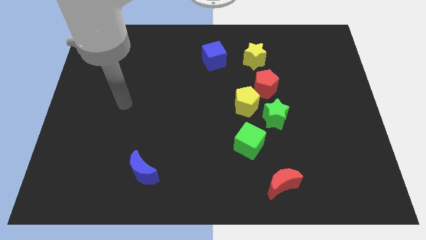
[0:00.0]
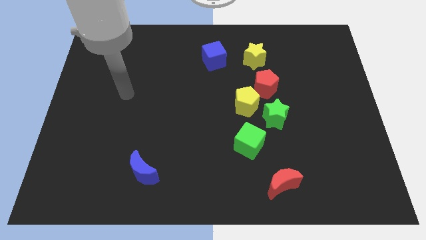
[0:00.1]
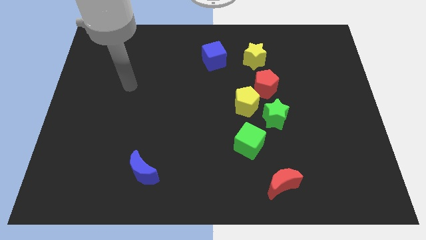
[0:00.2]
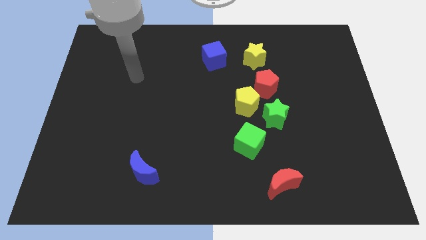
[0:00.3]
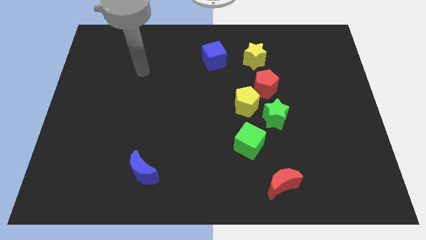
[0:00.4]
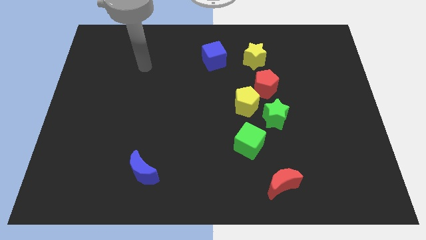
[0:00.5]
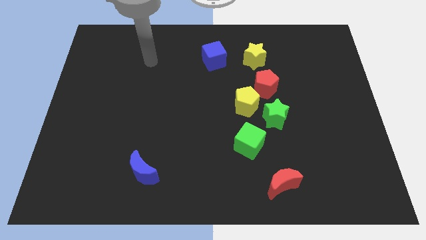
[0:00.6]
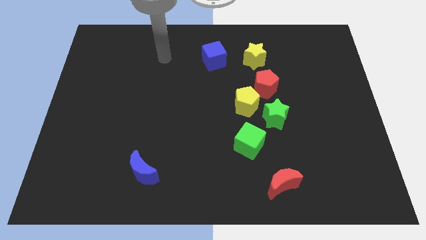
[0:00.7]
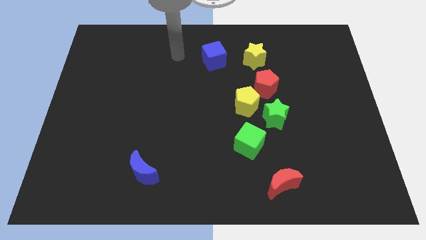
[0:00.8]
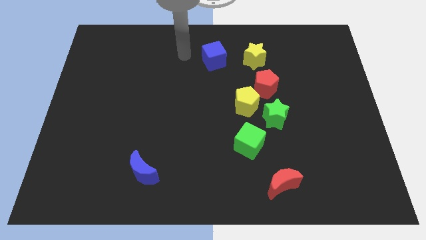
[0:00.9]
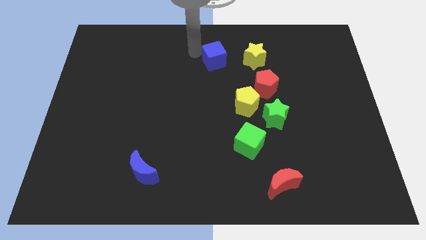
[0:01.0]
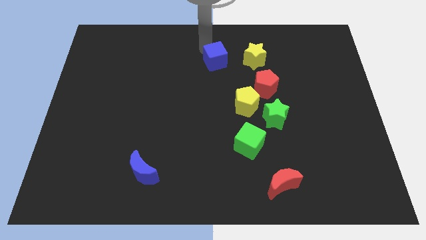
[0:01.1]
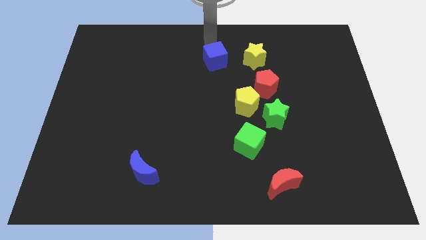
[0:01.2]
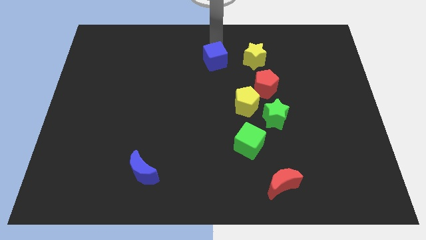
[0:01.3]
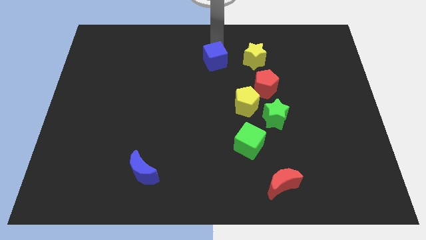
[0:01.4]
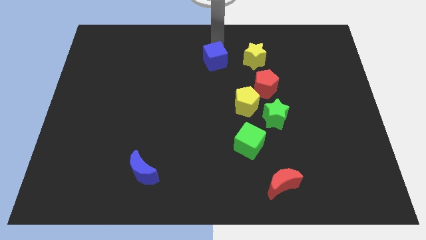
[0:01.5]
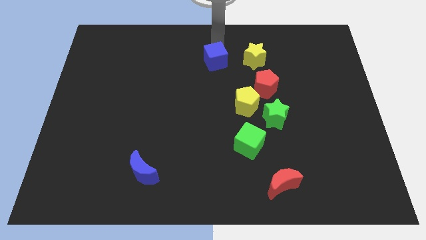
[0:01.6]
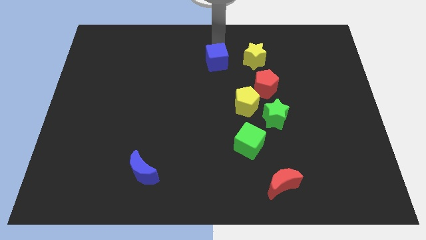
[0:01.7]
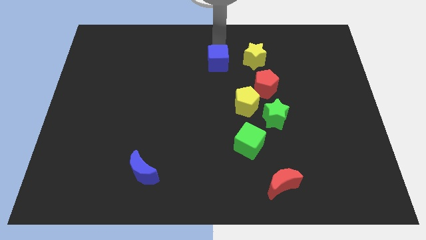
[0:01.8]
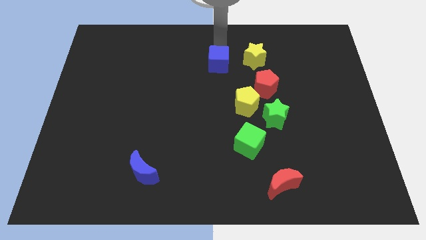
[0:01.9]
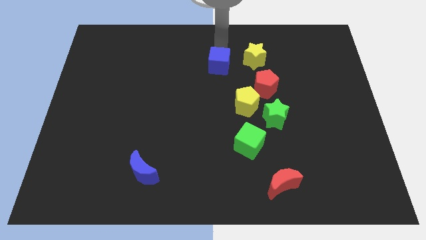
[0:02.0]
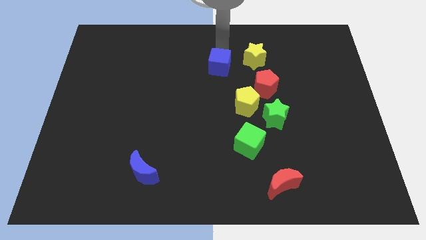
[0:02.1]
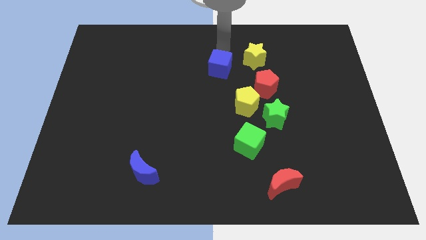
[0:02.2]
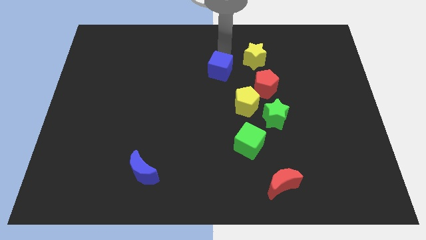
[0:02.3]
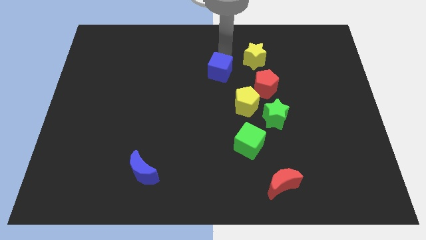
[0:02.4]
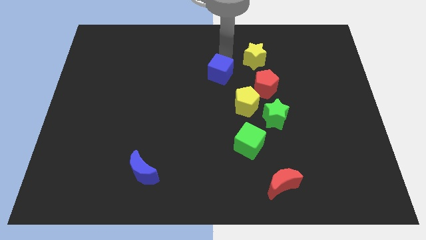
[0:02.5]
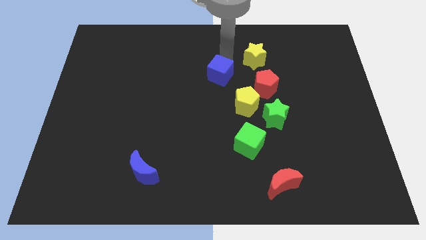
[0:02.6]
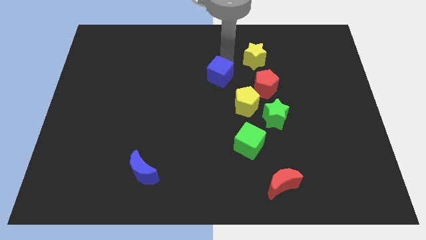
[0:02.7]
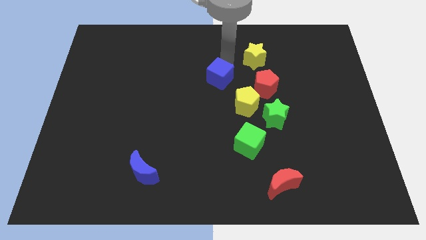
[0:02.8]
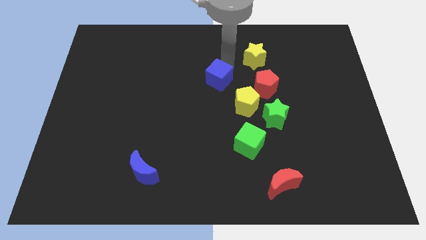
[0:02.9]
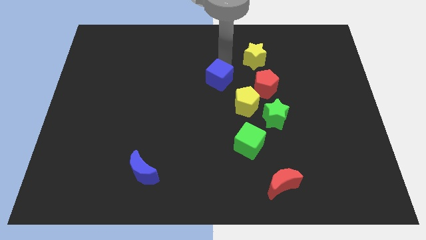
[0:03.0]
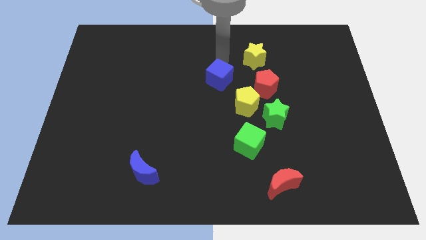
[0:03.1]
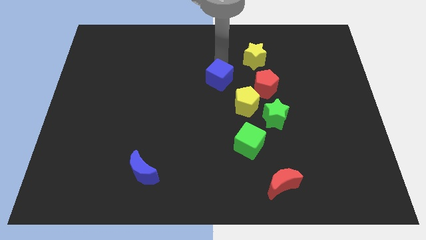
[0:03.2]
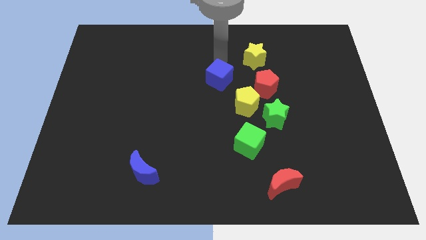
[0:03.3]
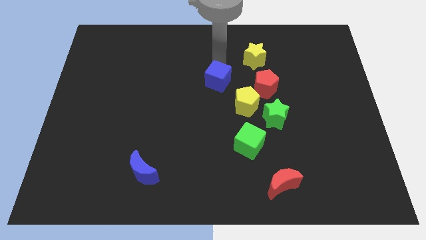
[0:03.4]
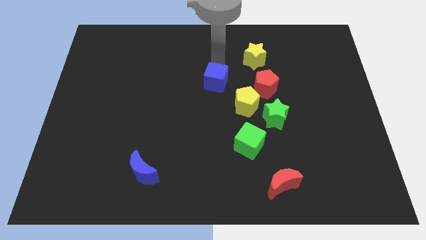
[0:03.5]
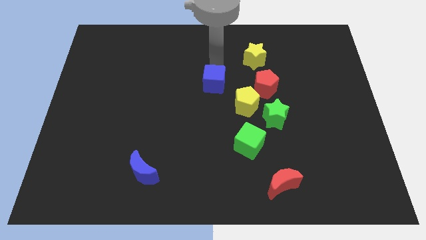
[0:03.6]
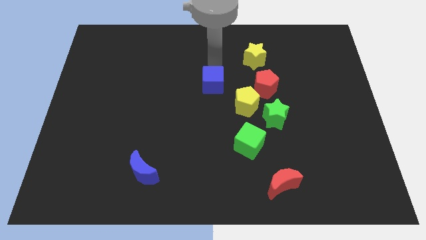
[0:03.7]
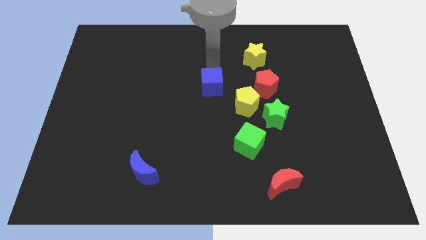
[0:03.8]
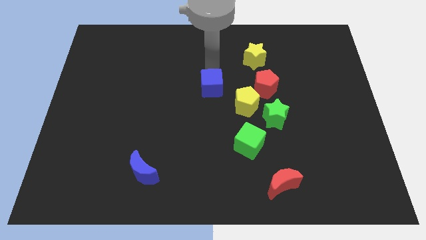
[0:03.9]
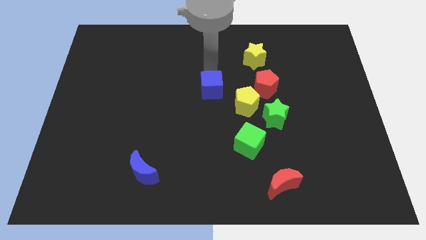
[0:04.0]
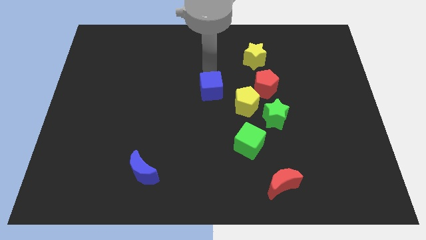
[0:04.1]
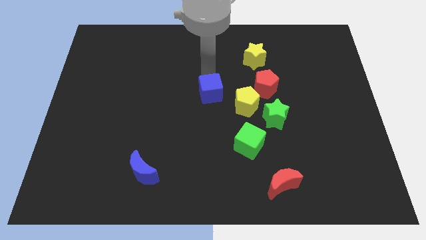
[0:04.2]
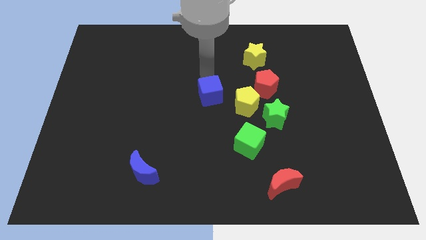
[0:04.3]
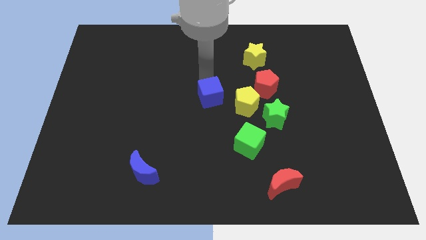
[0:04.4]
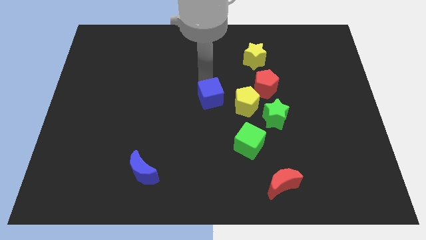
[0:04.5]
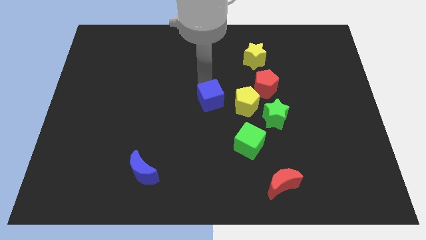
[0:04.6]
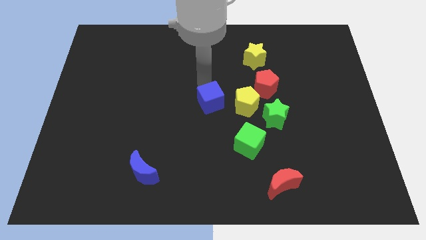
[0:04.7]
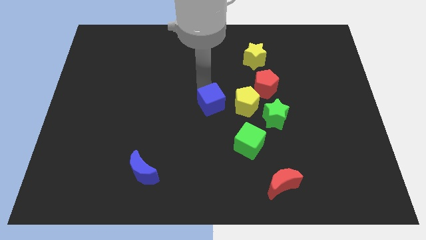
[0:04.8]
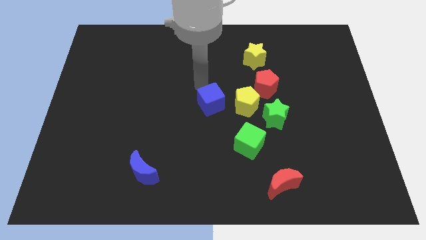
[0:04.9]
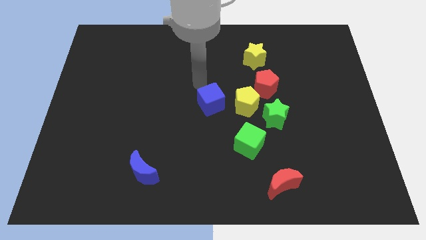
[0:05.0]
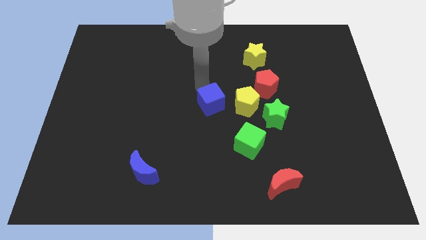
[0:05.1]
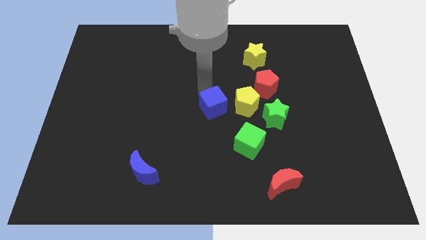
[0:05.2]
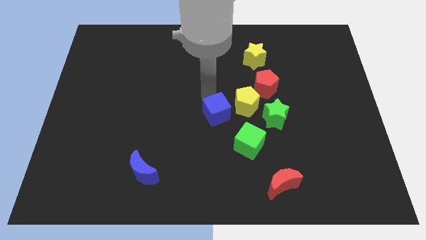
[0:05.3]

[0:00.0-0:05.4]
put the blue cube diagonally up and to the left of the green cube

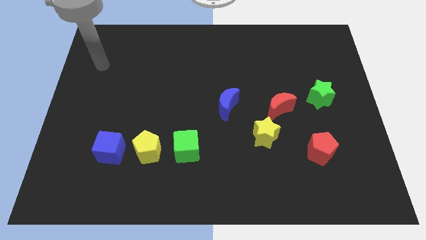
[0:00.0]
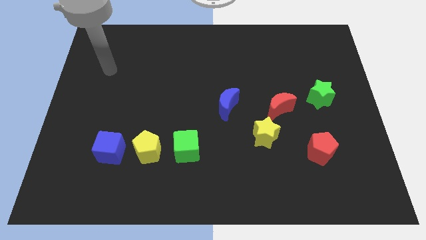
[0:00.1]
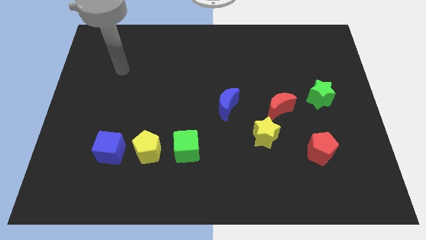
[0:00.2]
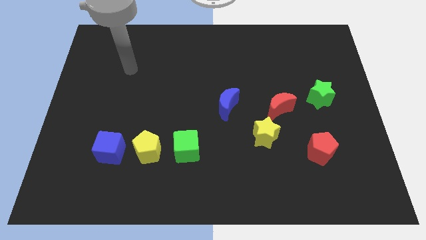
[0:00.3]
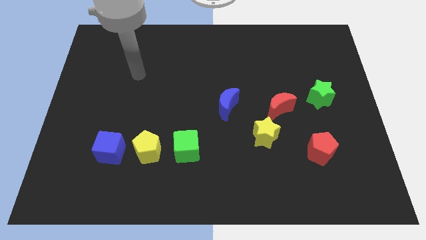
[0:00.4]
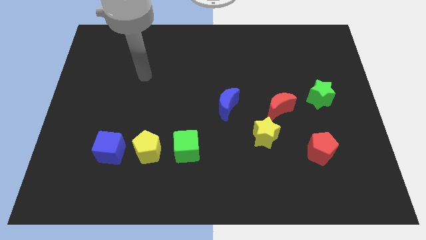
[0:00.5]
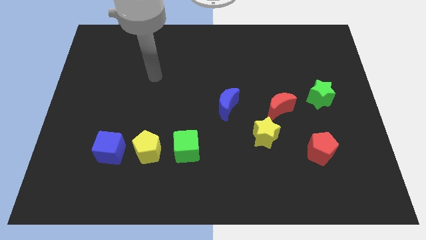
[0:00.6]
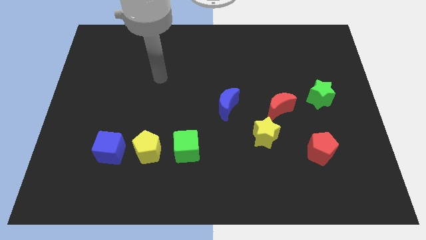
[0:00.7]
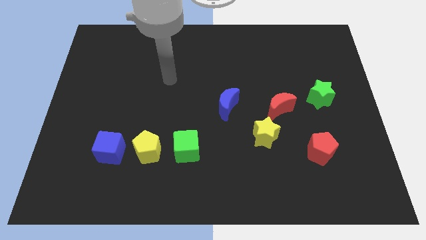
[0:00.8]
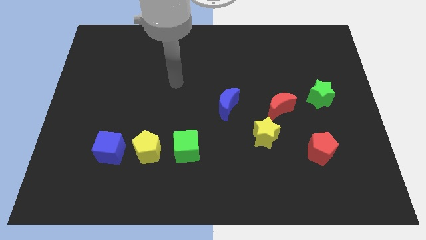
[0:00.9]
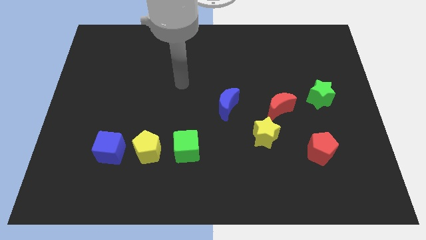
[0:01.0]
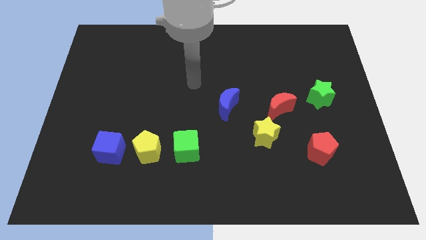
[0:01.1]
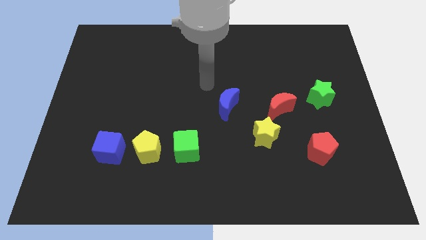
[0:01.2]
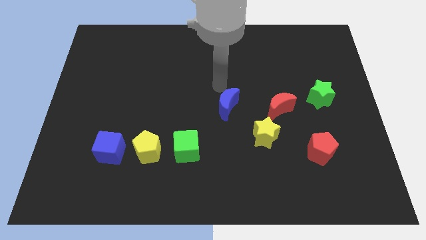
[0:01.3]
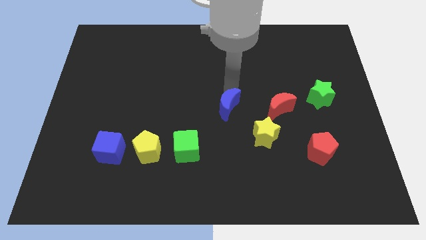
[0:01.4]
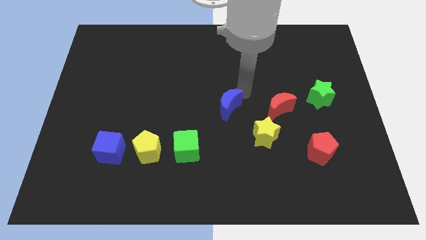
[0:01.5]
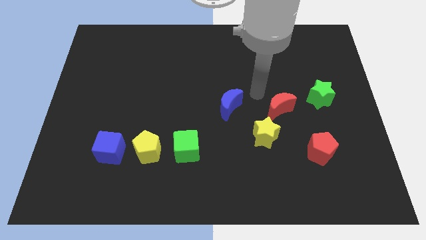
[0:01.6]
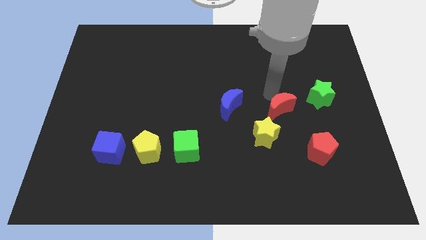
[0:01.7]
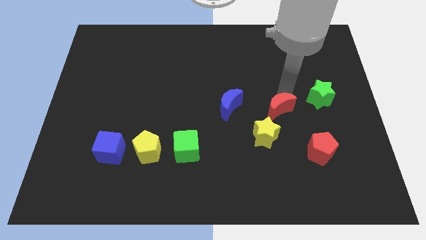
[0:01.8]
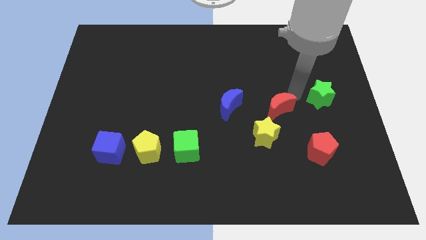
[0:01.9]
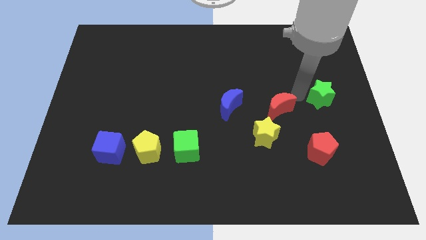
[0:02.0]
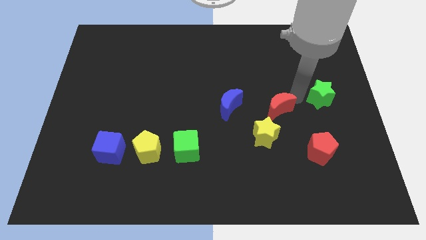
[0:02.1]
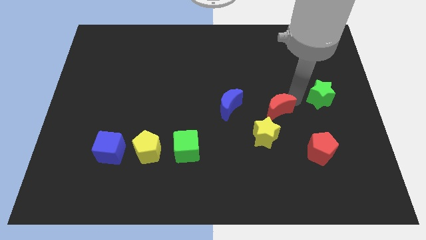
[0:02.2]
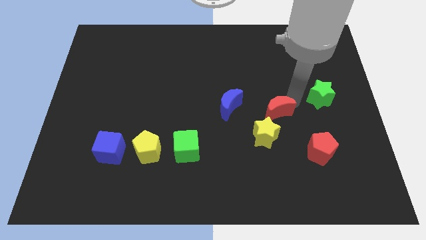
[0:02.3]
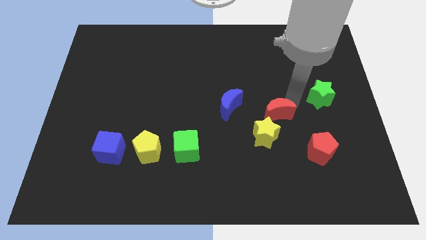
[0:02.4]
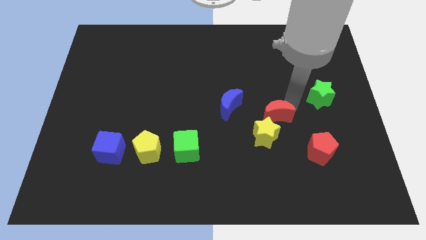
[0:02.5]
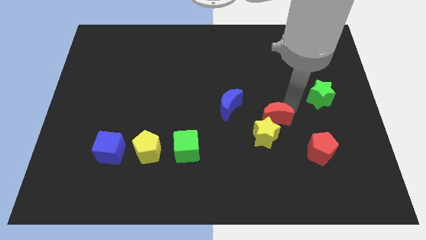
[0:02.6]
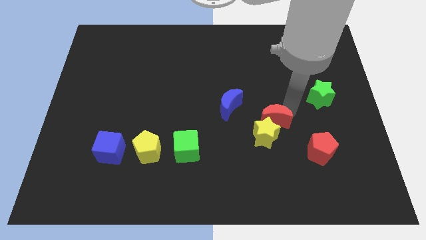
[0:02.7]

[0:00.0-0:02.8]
push the red moon diagonally down and to the right of the blue moon

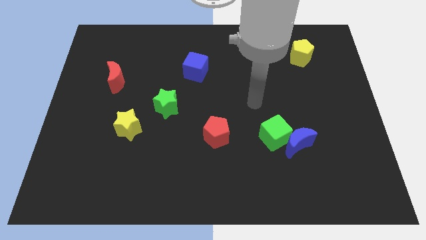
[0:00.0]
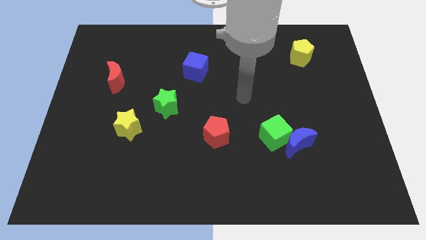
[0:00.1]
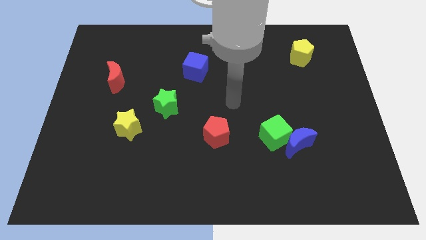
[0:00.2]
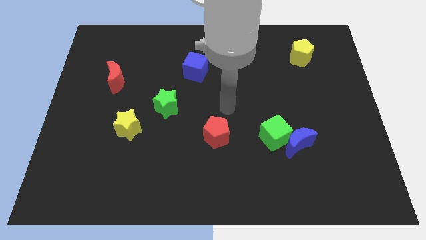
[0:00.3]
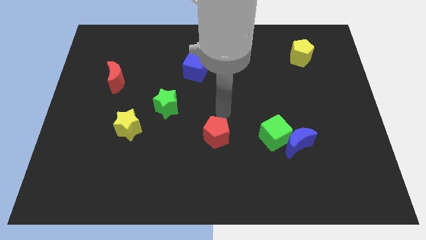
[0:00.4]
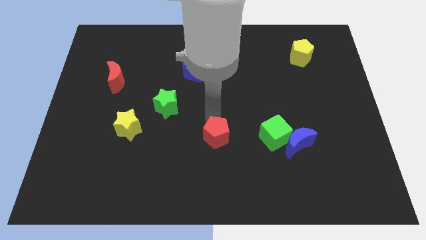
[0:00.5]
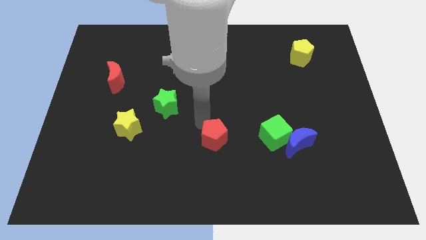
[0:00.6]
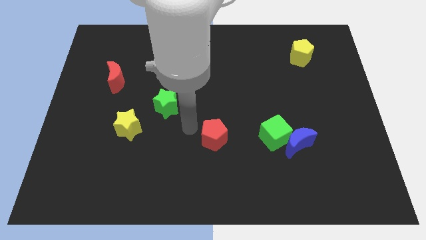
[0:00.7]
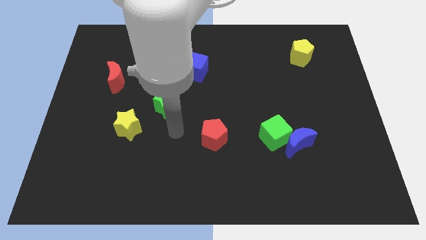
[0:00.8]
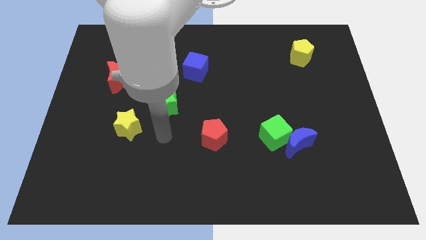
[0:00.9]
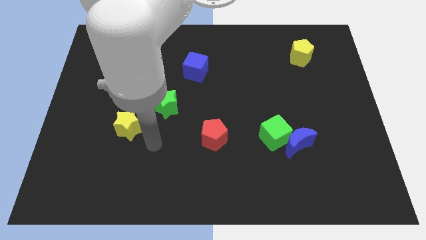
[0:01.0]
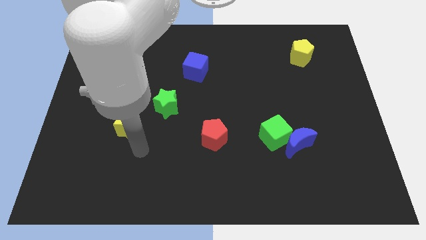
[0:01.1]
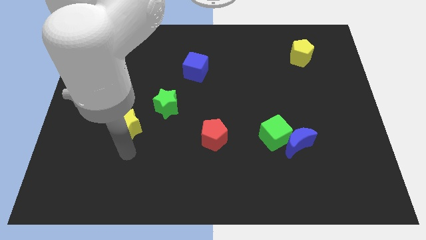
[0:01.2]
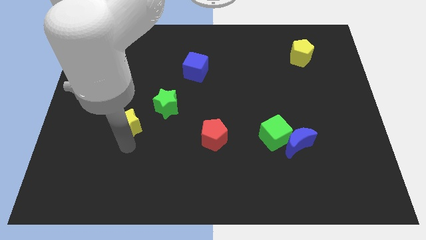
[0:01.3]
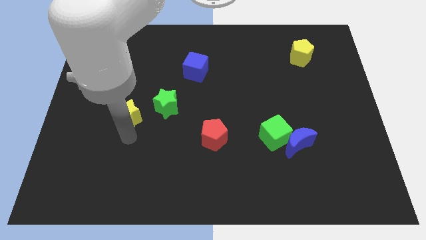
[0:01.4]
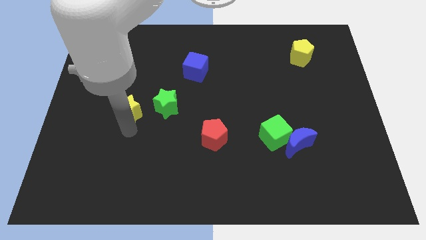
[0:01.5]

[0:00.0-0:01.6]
put the yellow star diagonally down and to the right of the red moon
